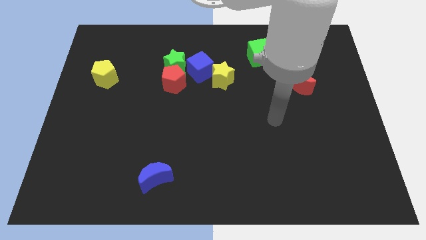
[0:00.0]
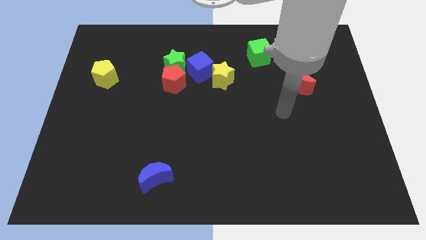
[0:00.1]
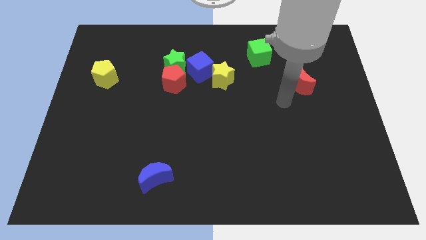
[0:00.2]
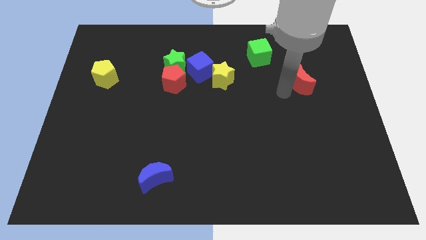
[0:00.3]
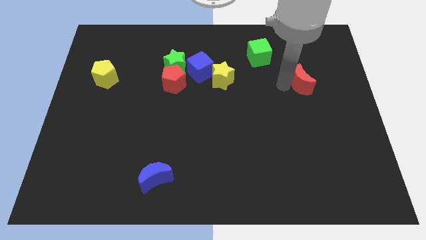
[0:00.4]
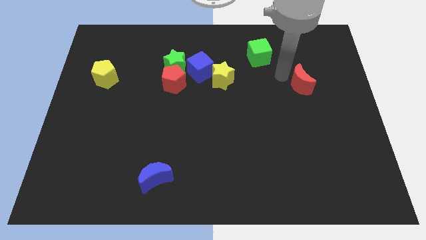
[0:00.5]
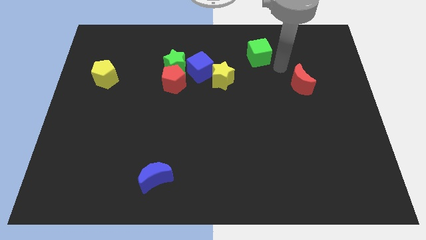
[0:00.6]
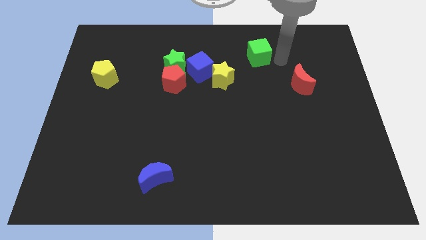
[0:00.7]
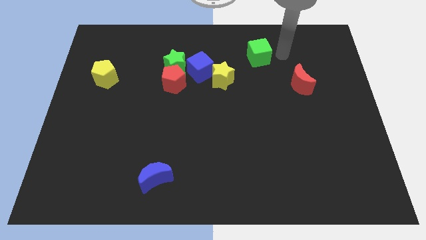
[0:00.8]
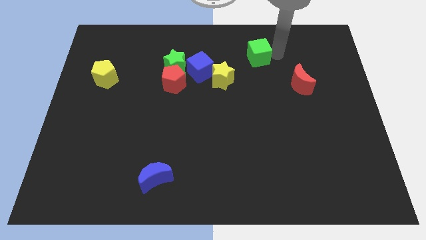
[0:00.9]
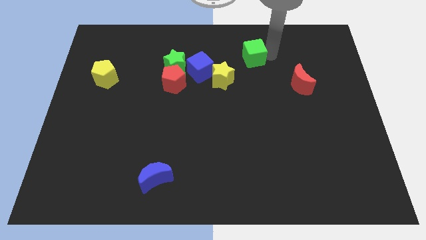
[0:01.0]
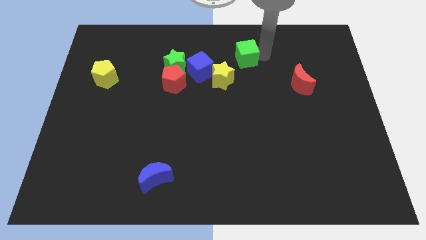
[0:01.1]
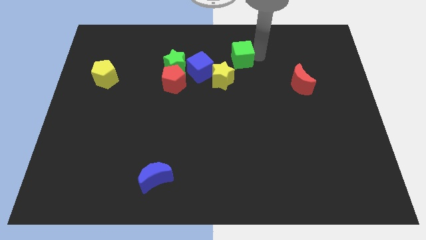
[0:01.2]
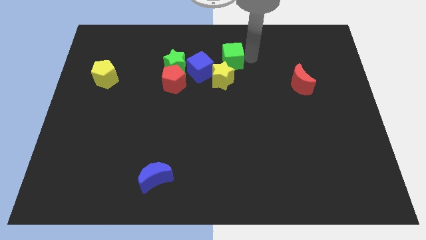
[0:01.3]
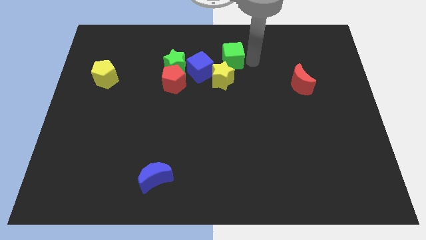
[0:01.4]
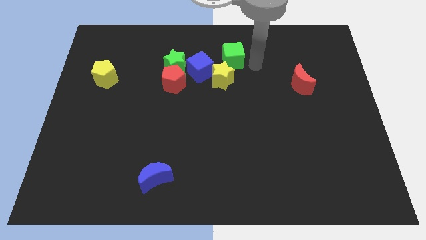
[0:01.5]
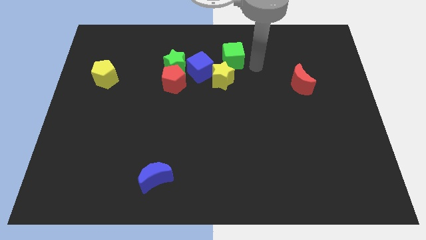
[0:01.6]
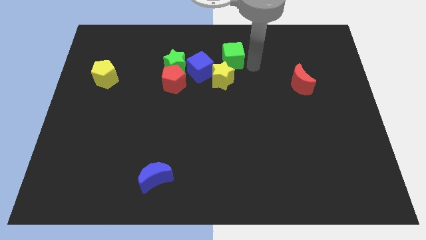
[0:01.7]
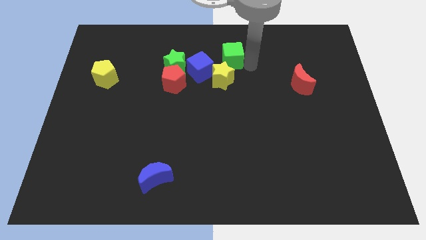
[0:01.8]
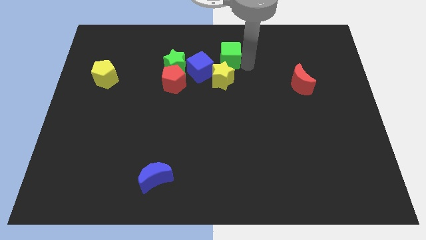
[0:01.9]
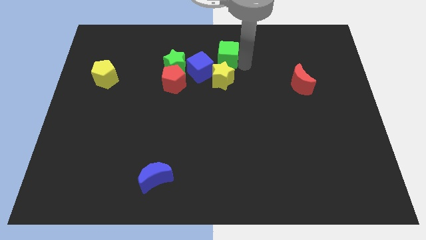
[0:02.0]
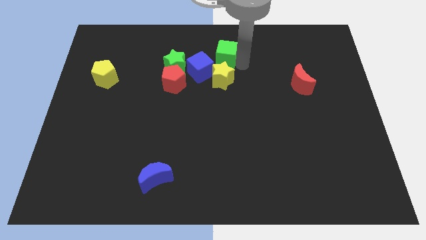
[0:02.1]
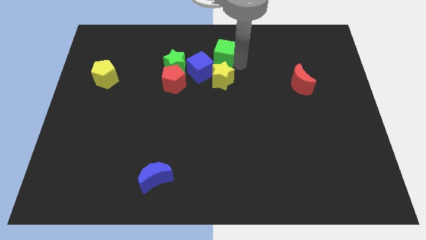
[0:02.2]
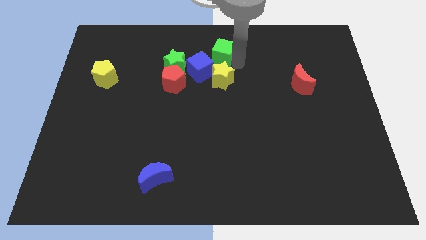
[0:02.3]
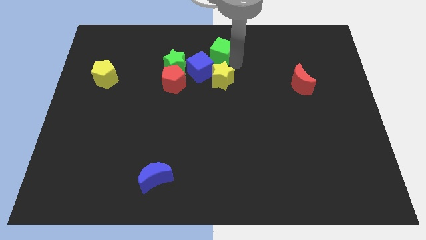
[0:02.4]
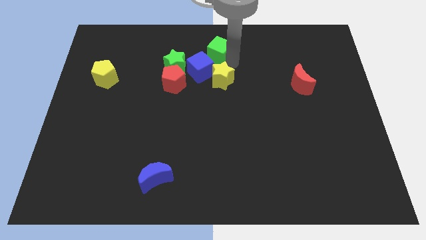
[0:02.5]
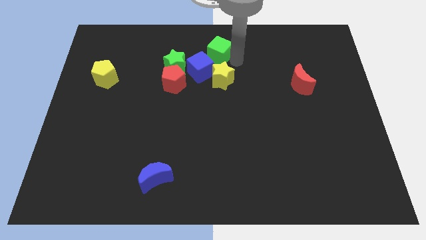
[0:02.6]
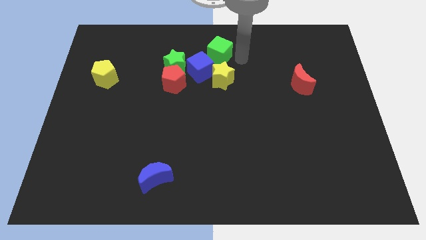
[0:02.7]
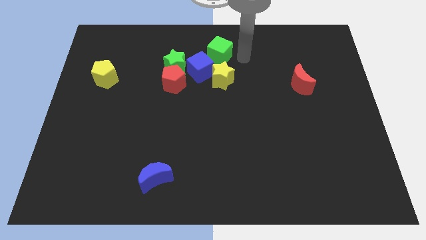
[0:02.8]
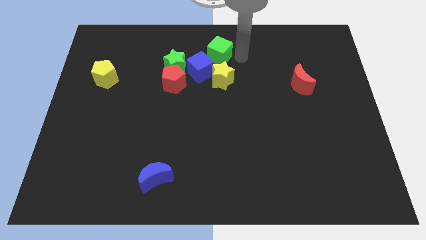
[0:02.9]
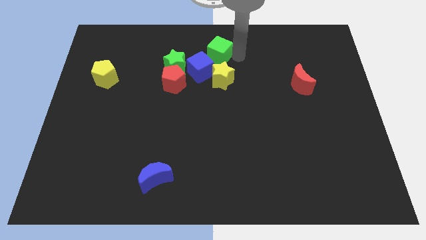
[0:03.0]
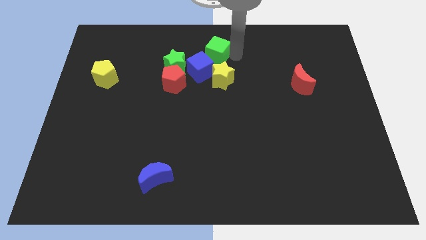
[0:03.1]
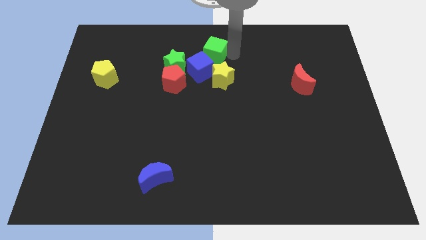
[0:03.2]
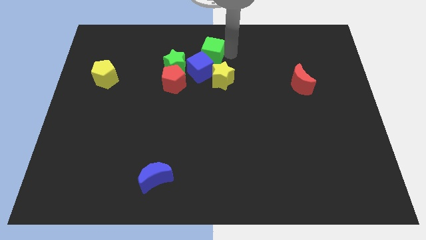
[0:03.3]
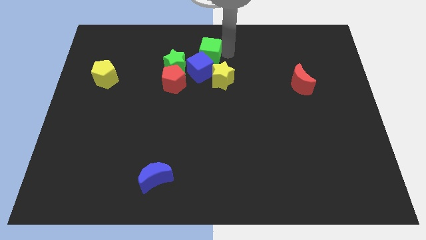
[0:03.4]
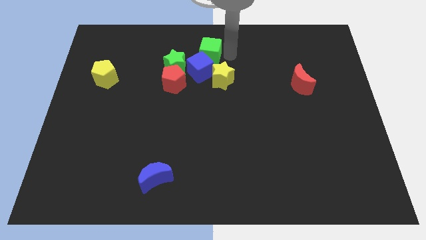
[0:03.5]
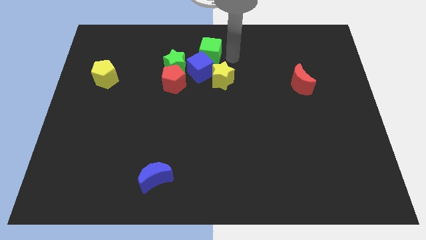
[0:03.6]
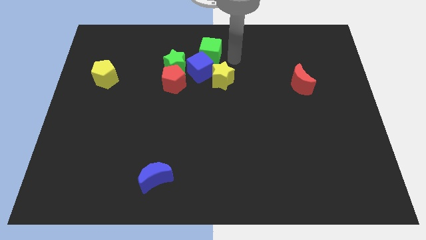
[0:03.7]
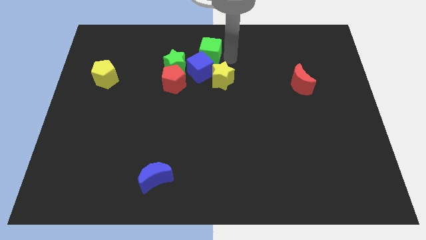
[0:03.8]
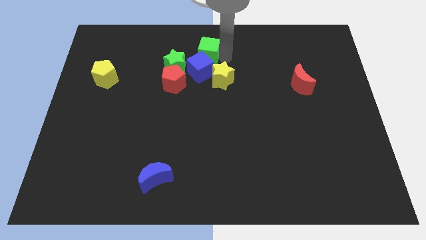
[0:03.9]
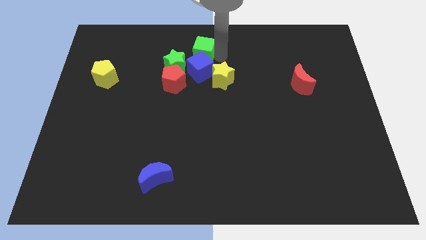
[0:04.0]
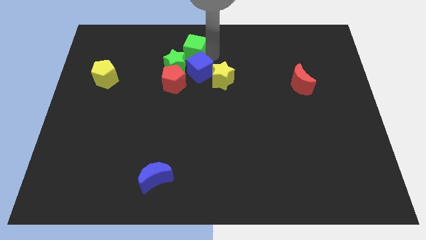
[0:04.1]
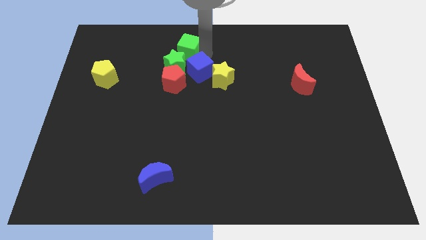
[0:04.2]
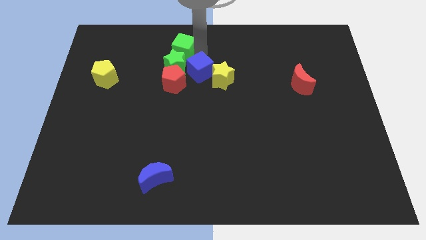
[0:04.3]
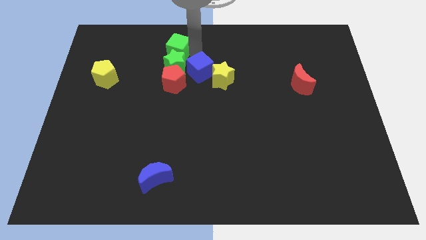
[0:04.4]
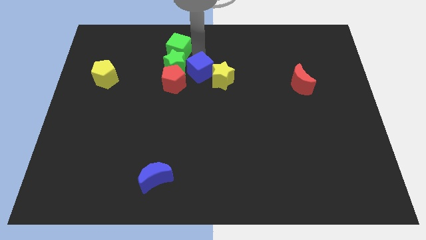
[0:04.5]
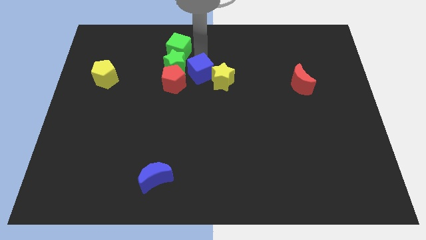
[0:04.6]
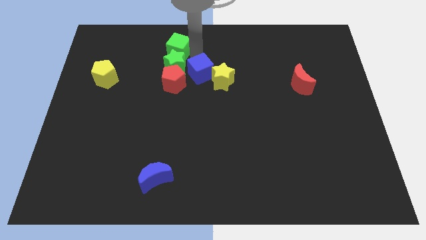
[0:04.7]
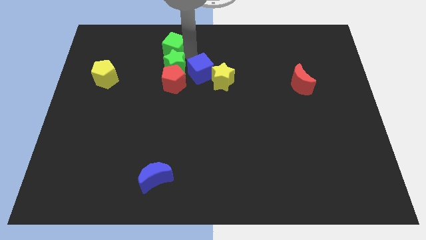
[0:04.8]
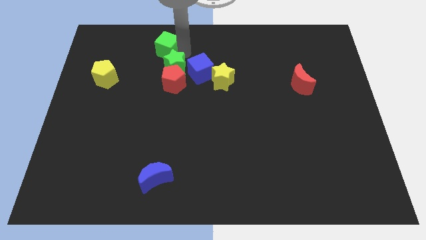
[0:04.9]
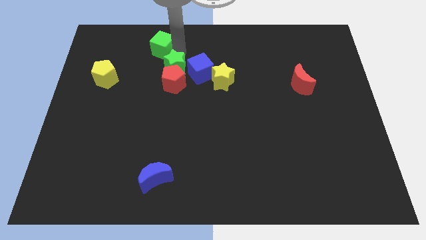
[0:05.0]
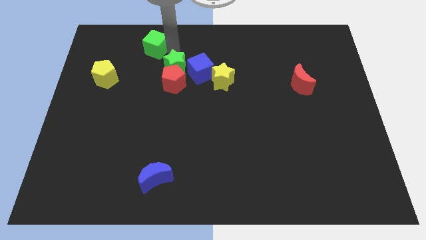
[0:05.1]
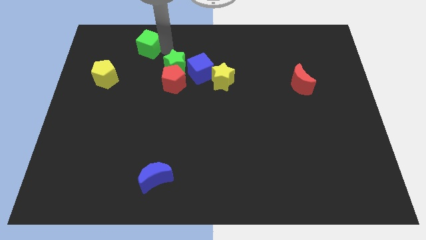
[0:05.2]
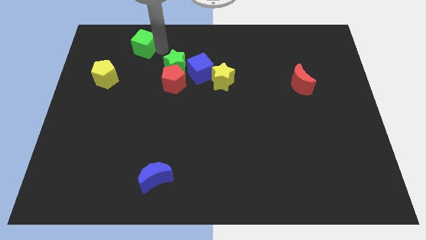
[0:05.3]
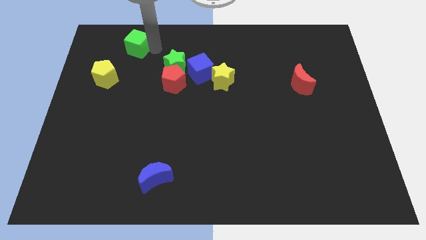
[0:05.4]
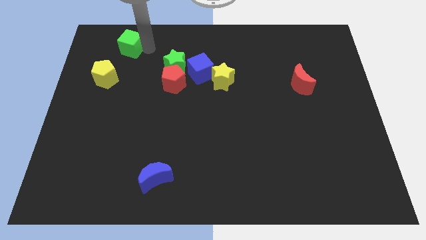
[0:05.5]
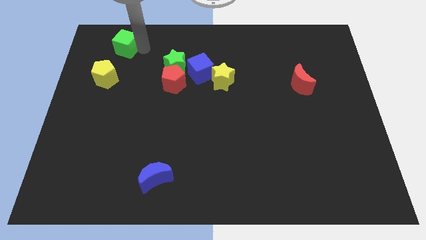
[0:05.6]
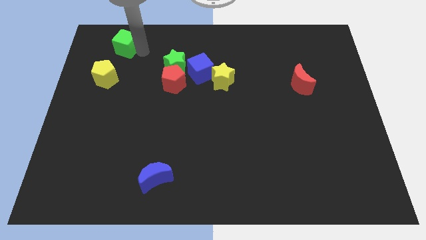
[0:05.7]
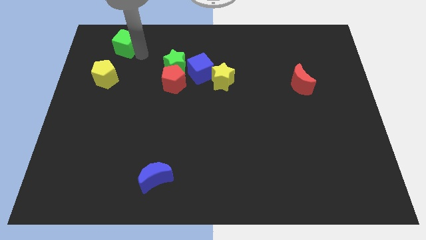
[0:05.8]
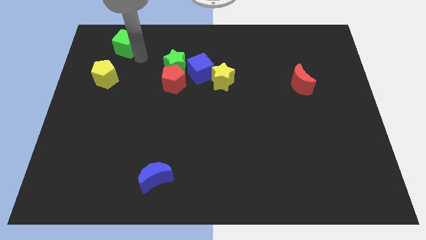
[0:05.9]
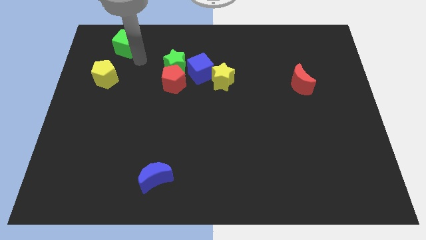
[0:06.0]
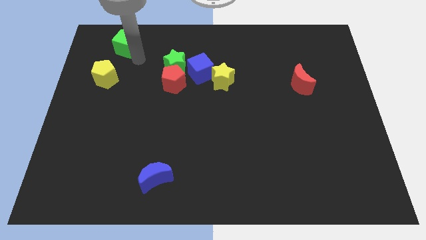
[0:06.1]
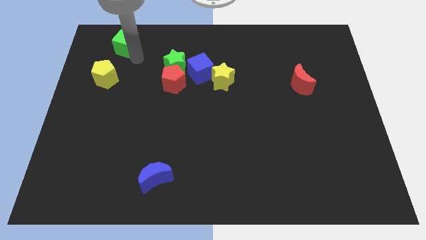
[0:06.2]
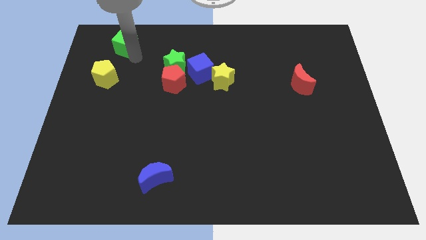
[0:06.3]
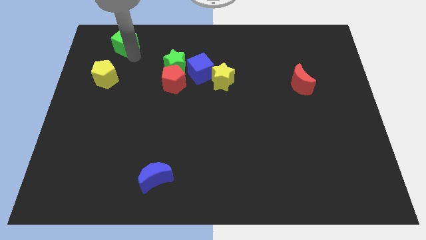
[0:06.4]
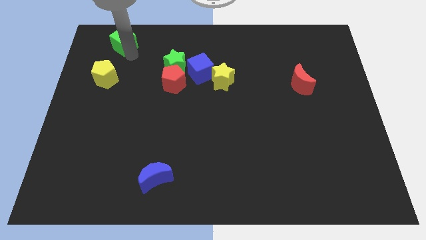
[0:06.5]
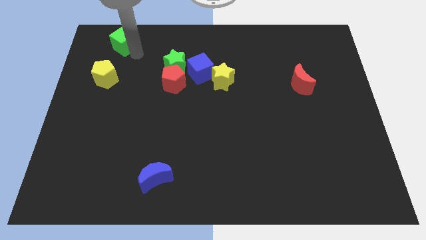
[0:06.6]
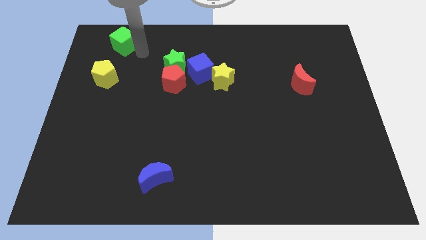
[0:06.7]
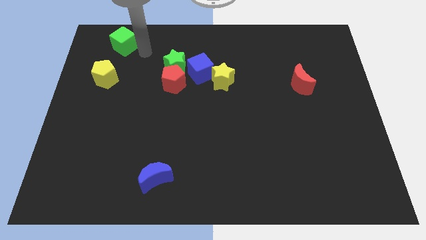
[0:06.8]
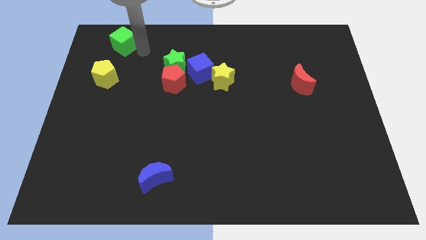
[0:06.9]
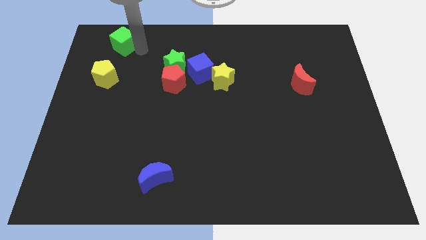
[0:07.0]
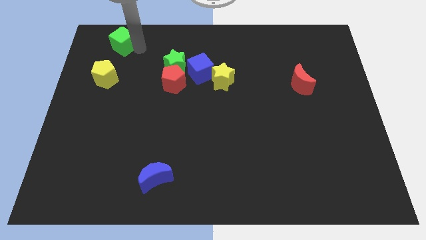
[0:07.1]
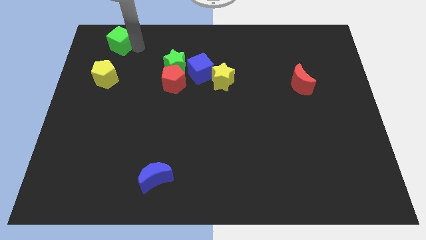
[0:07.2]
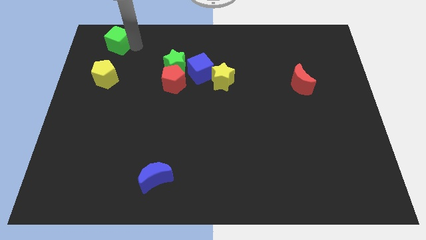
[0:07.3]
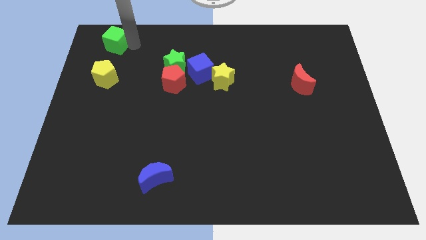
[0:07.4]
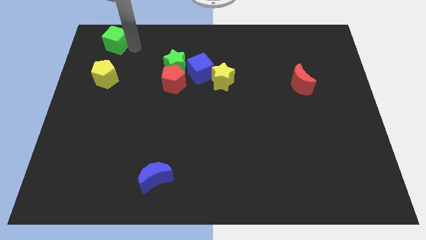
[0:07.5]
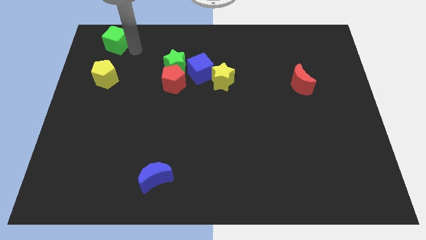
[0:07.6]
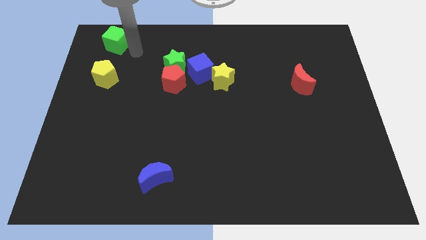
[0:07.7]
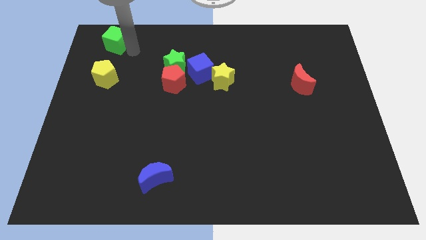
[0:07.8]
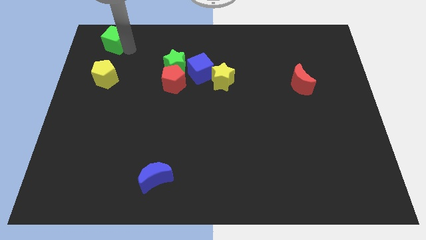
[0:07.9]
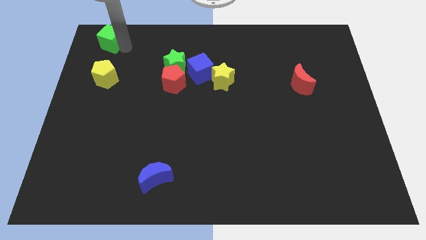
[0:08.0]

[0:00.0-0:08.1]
push the green cube to the top left corner
